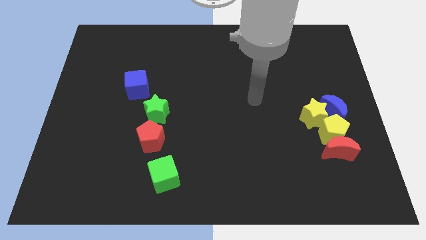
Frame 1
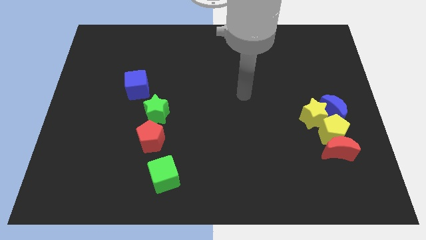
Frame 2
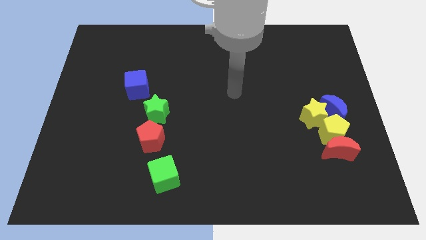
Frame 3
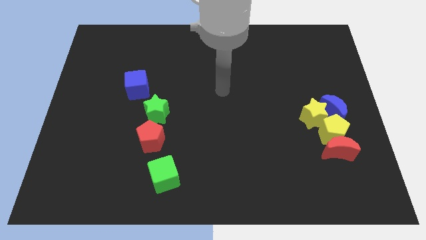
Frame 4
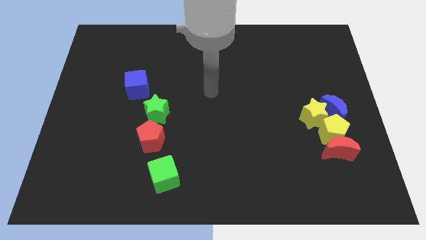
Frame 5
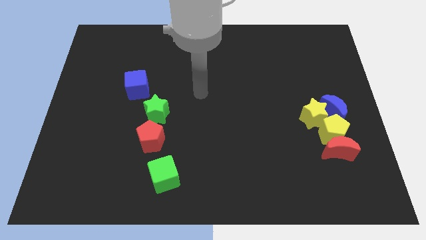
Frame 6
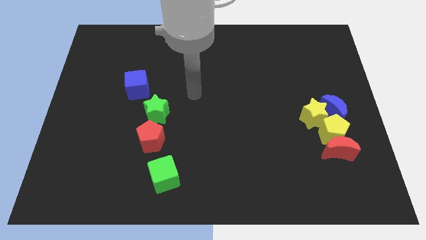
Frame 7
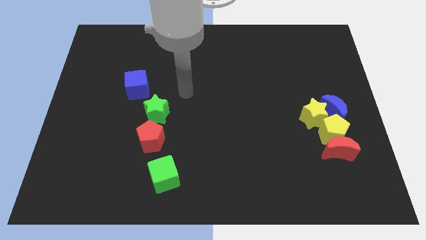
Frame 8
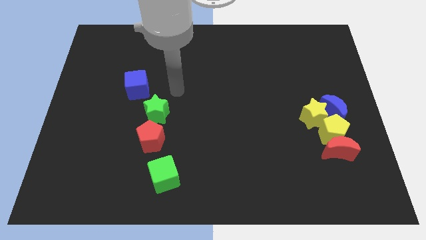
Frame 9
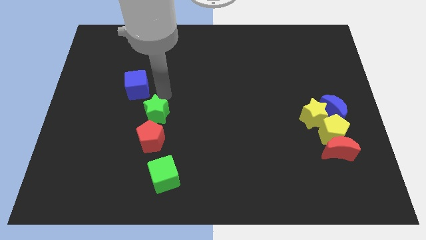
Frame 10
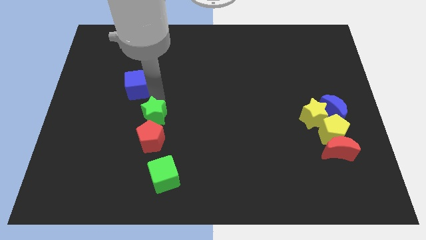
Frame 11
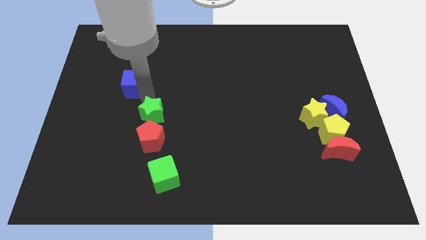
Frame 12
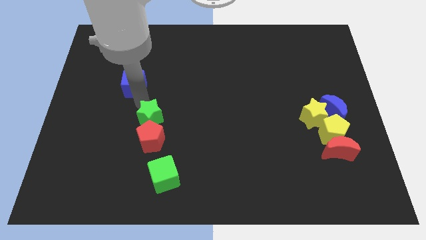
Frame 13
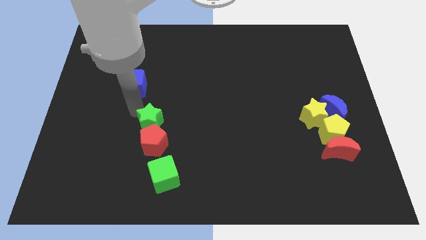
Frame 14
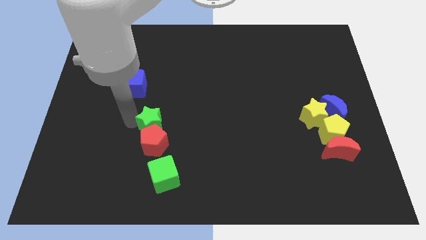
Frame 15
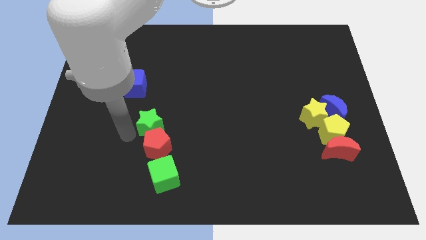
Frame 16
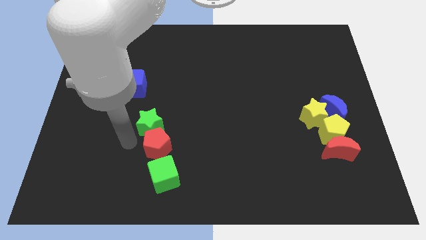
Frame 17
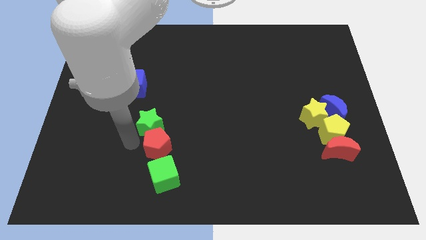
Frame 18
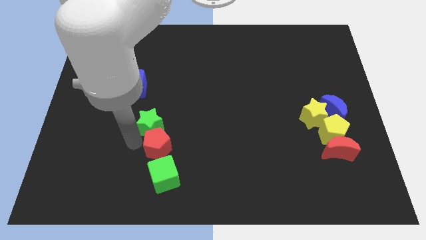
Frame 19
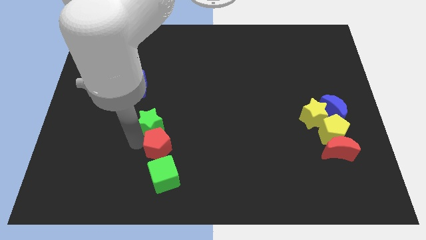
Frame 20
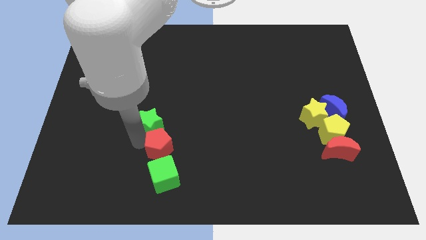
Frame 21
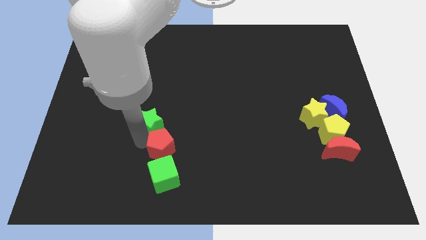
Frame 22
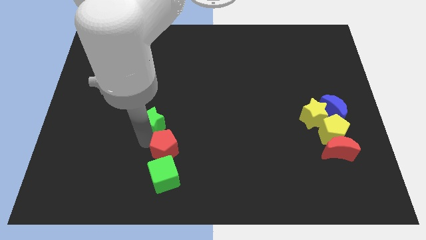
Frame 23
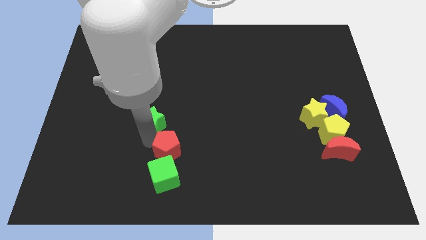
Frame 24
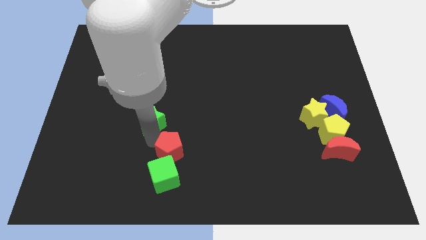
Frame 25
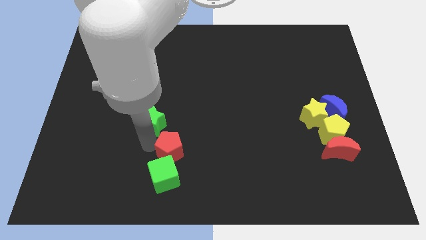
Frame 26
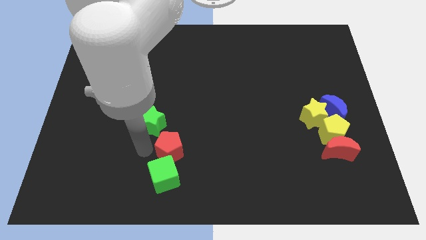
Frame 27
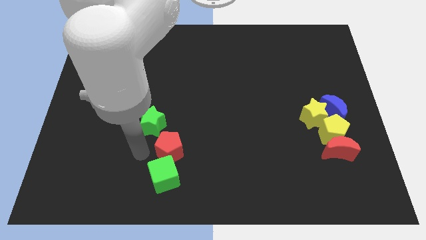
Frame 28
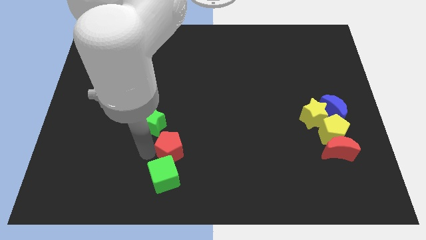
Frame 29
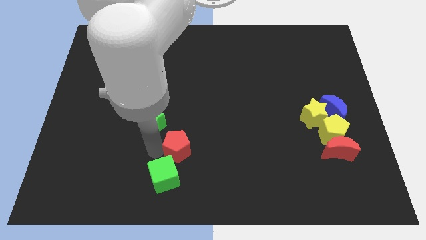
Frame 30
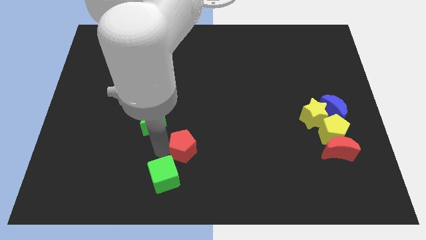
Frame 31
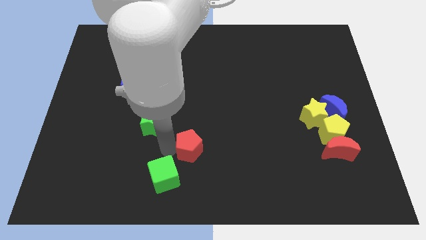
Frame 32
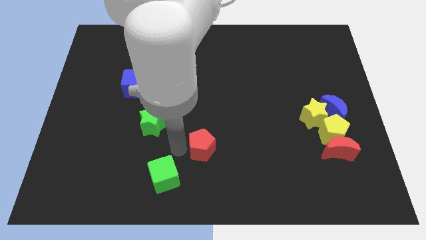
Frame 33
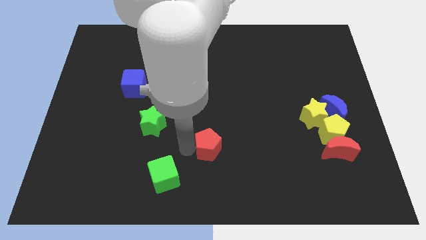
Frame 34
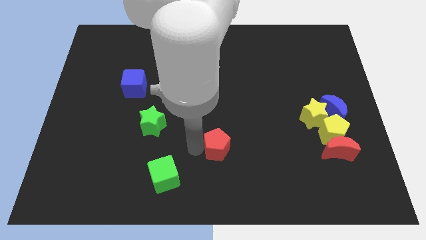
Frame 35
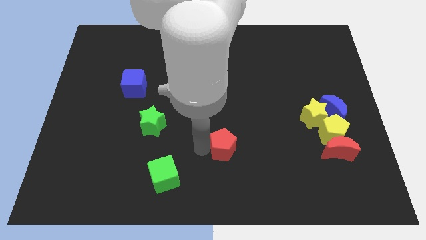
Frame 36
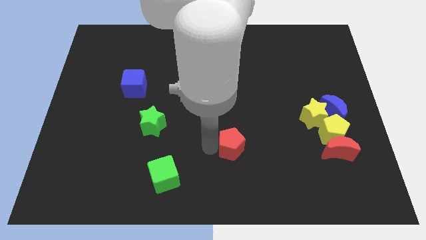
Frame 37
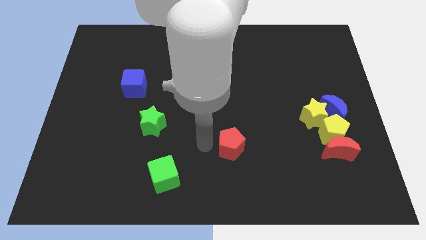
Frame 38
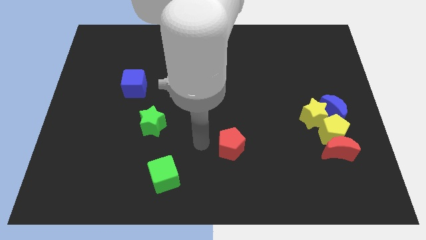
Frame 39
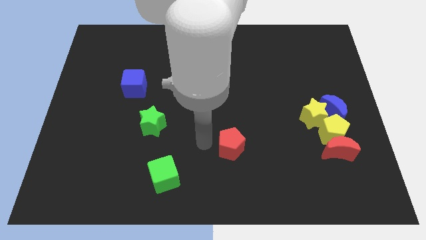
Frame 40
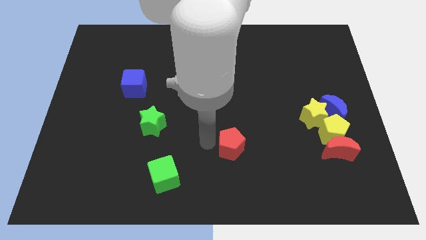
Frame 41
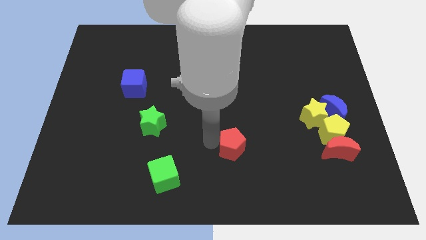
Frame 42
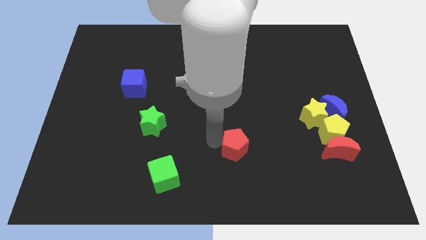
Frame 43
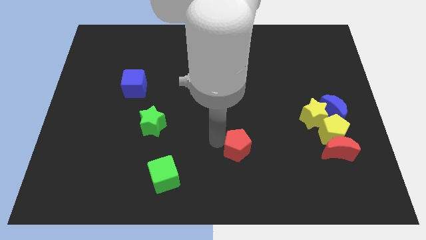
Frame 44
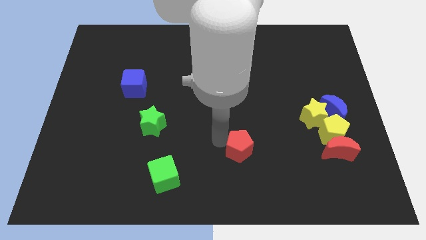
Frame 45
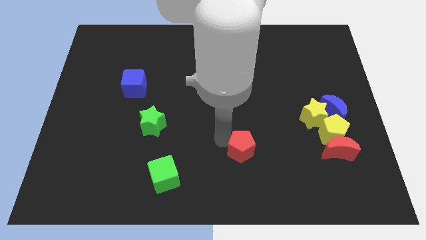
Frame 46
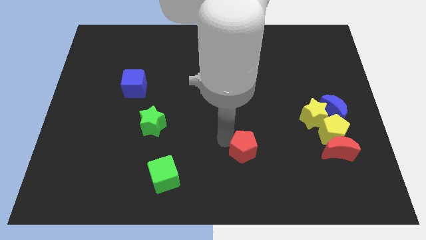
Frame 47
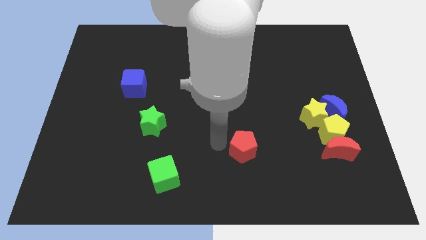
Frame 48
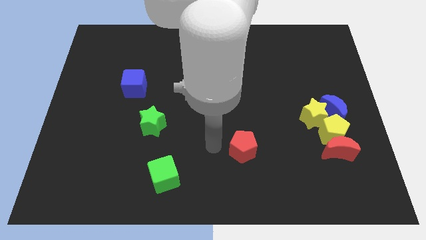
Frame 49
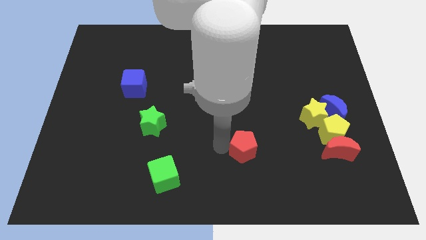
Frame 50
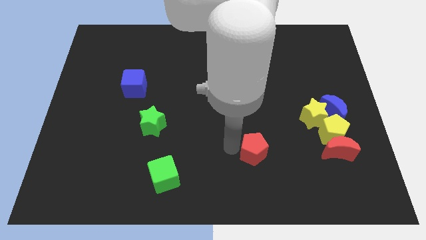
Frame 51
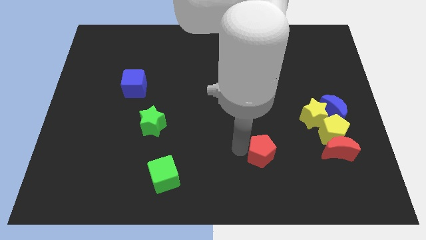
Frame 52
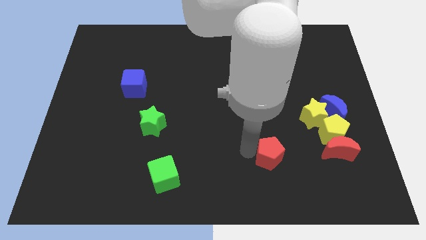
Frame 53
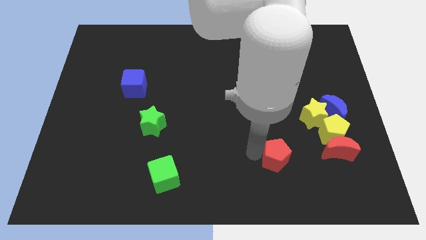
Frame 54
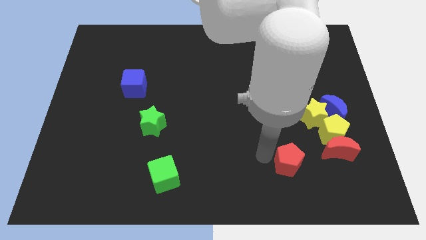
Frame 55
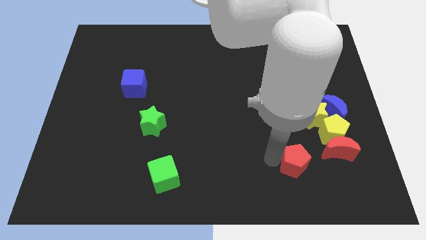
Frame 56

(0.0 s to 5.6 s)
push the red pentagon to the bottom left of the yellow pentagon
